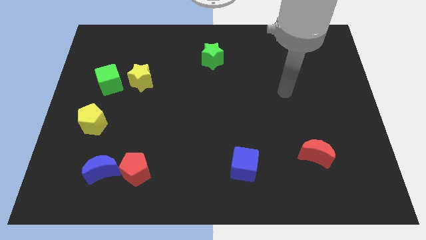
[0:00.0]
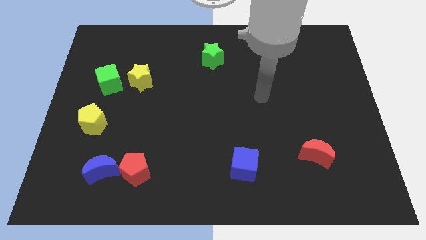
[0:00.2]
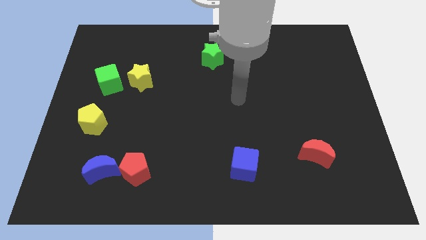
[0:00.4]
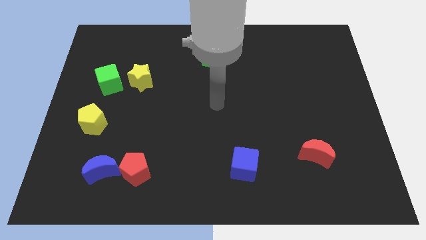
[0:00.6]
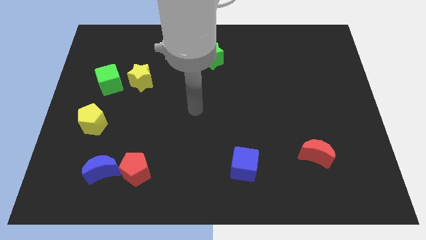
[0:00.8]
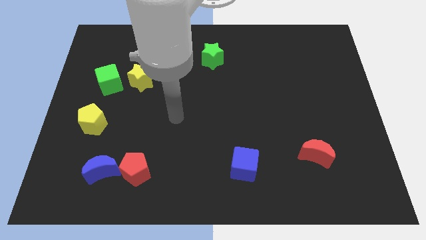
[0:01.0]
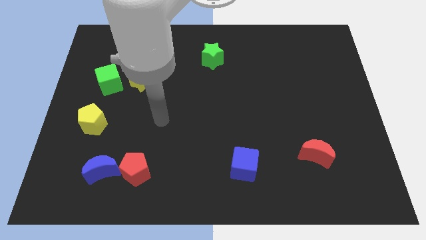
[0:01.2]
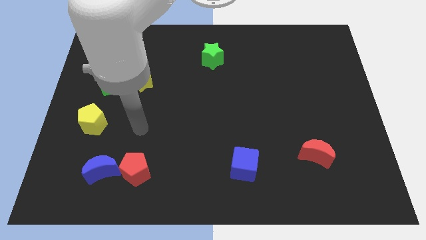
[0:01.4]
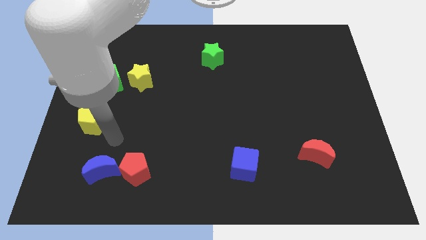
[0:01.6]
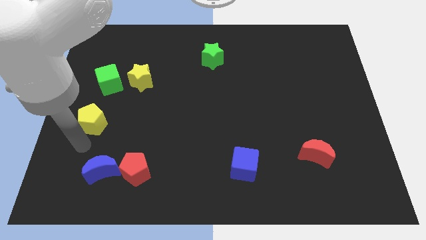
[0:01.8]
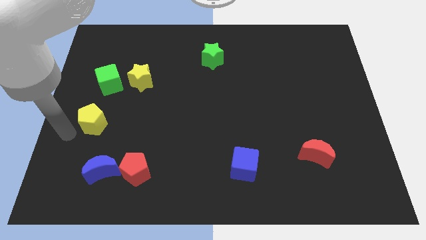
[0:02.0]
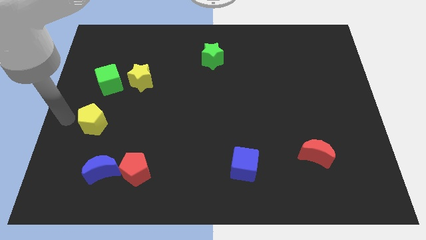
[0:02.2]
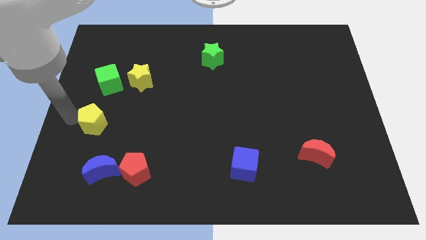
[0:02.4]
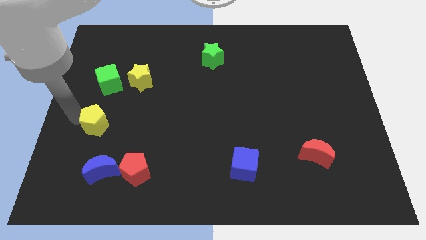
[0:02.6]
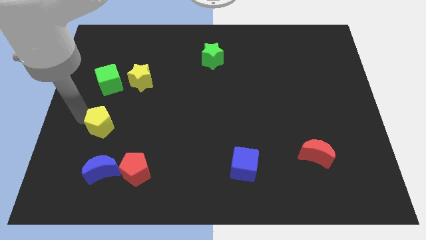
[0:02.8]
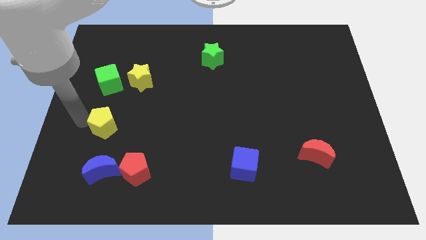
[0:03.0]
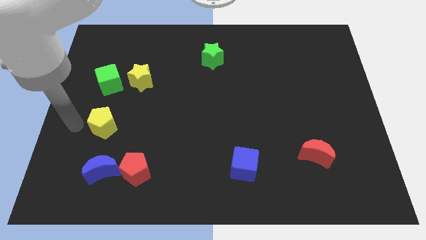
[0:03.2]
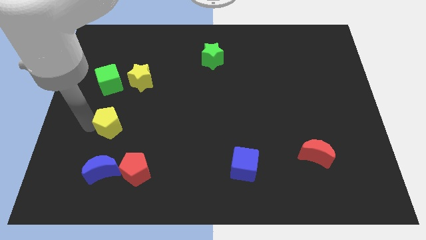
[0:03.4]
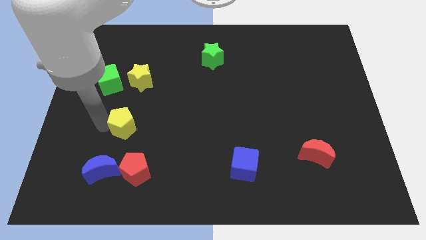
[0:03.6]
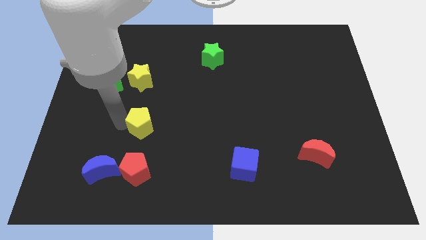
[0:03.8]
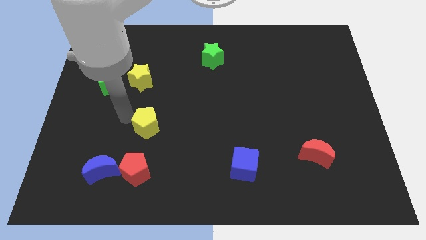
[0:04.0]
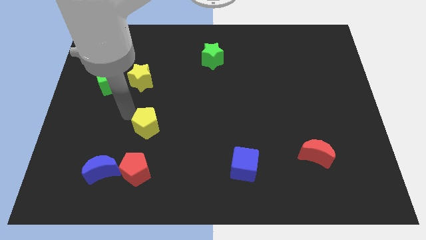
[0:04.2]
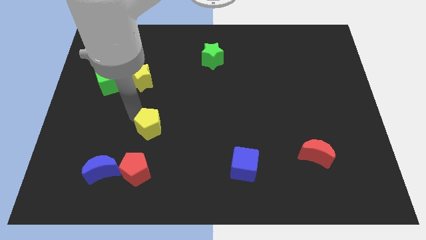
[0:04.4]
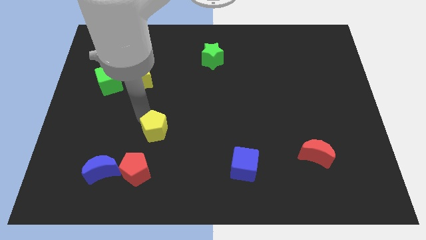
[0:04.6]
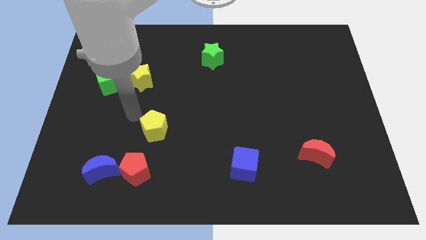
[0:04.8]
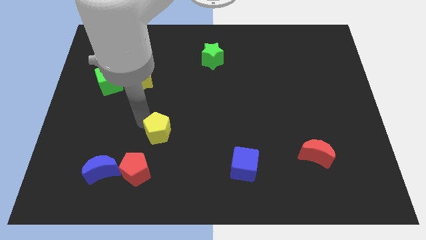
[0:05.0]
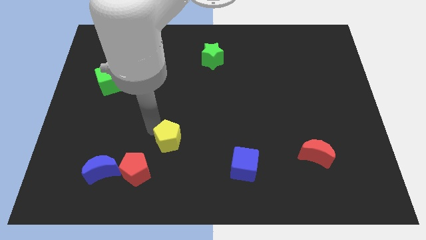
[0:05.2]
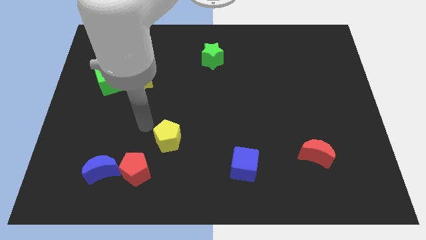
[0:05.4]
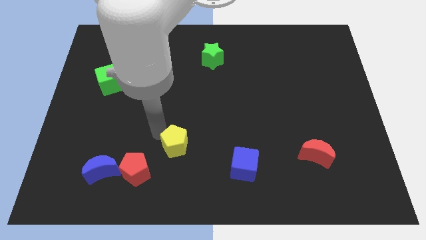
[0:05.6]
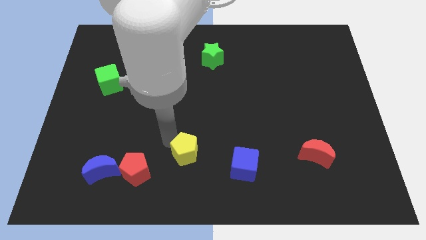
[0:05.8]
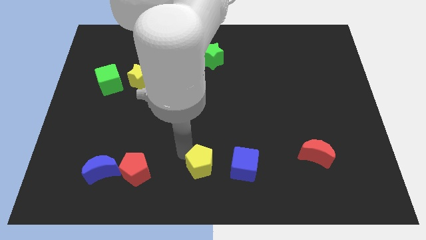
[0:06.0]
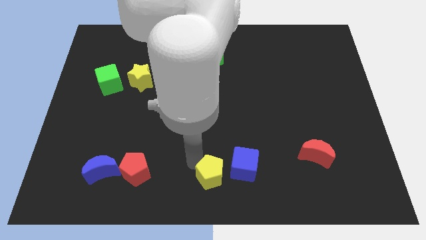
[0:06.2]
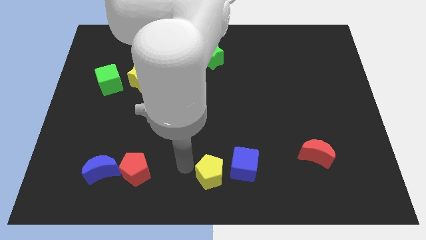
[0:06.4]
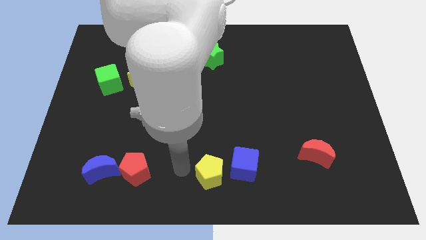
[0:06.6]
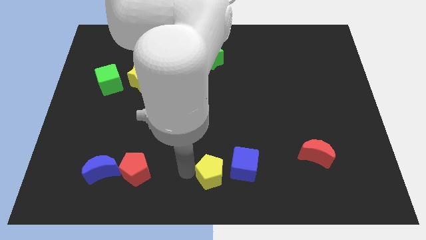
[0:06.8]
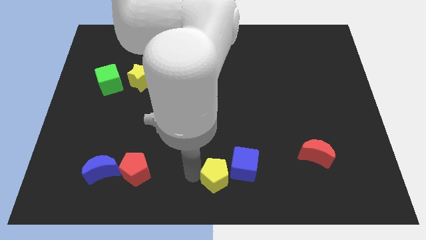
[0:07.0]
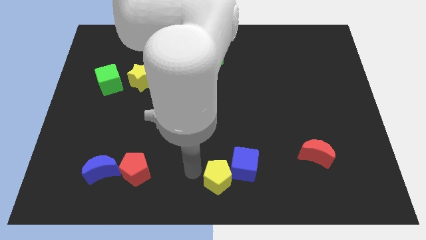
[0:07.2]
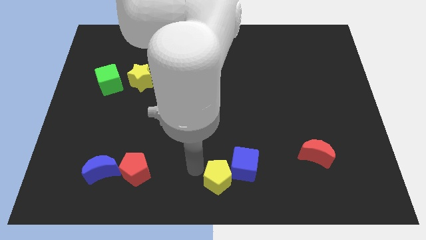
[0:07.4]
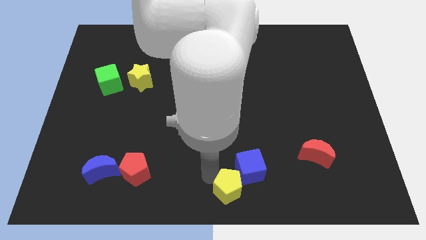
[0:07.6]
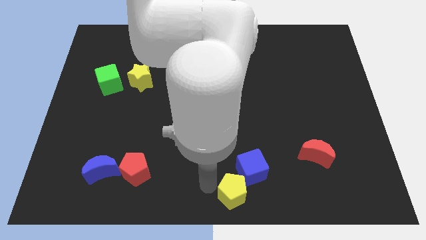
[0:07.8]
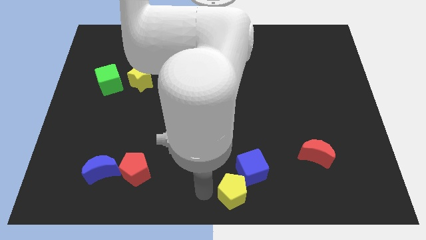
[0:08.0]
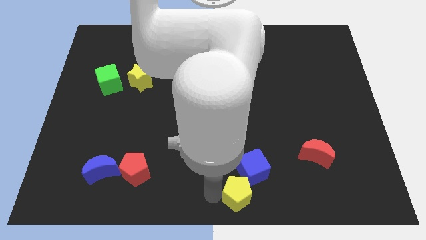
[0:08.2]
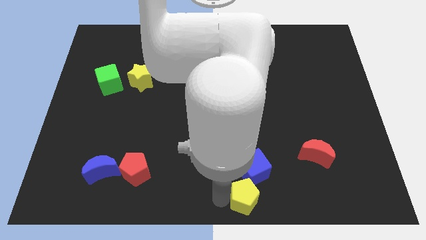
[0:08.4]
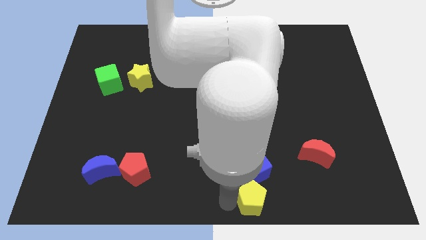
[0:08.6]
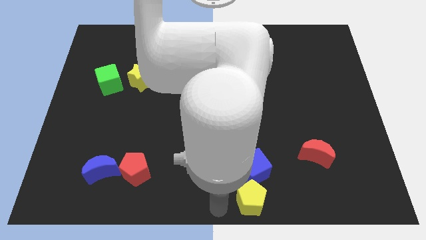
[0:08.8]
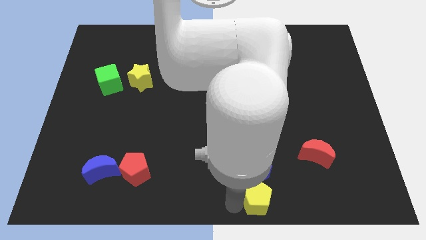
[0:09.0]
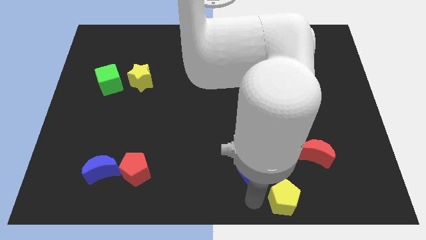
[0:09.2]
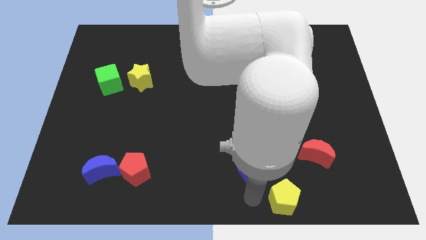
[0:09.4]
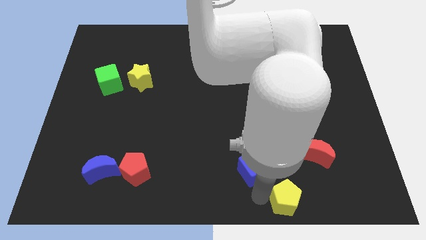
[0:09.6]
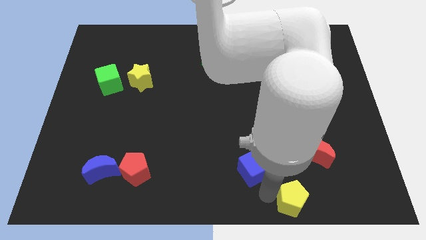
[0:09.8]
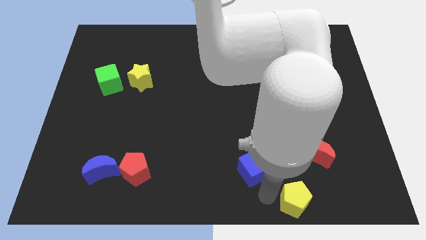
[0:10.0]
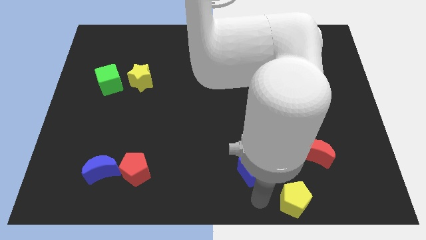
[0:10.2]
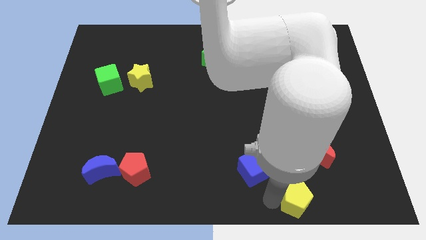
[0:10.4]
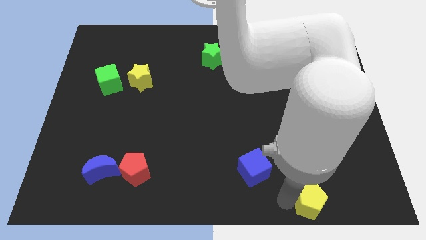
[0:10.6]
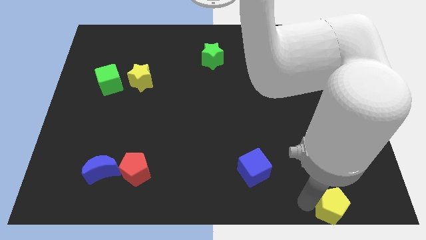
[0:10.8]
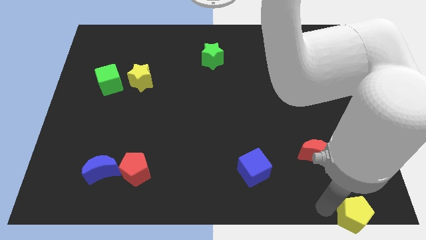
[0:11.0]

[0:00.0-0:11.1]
push the yellow pentagon to the bottom right corner

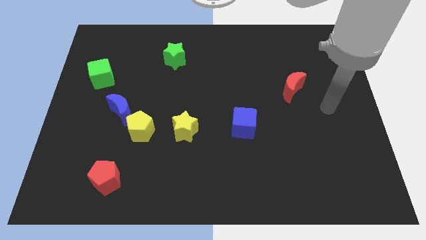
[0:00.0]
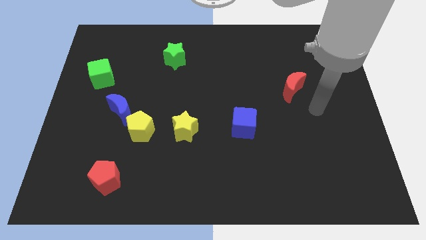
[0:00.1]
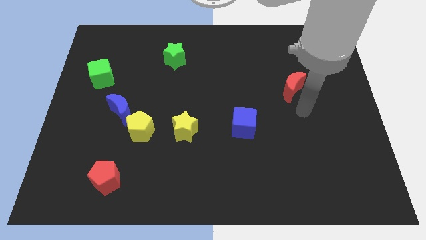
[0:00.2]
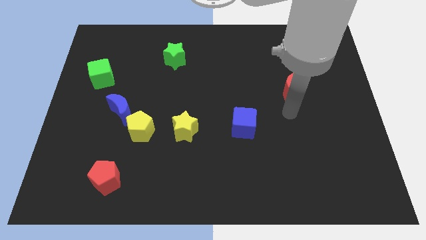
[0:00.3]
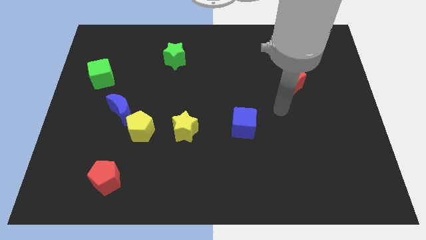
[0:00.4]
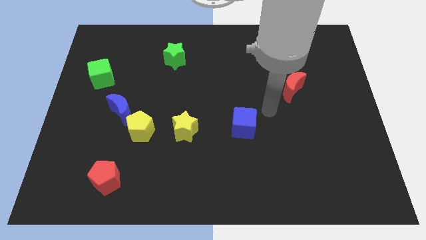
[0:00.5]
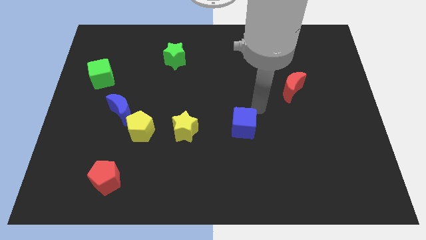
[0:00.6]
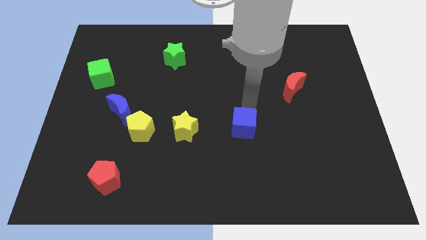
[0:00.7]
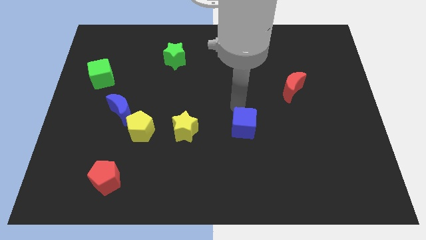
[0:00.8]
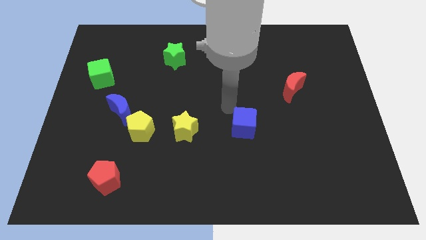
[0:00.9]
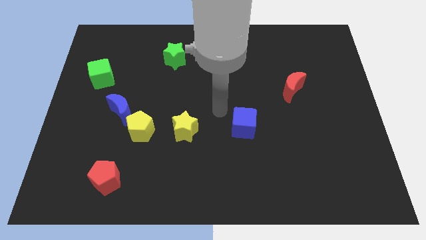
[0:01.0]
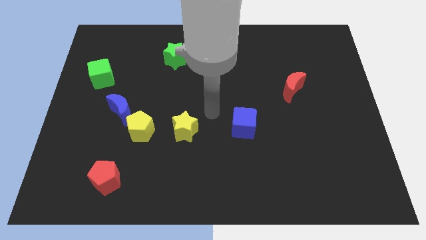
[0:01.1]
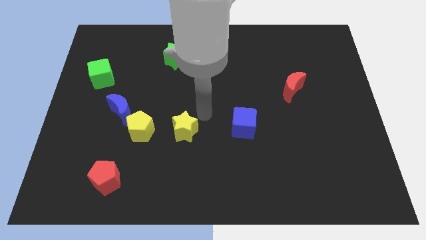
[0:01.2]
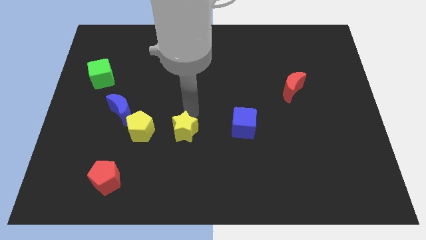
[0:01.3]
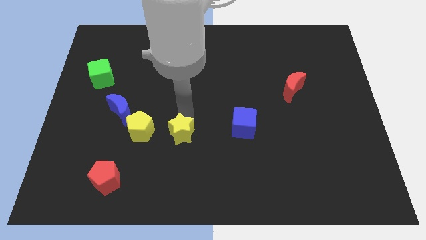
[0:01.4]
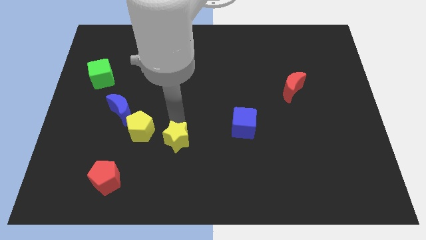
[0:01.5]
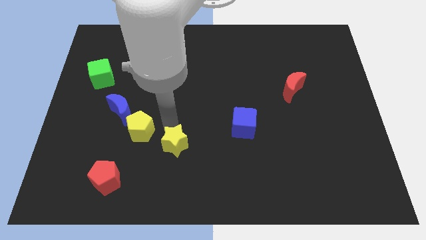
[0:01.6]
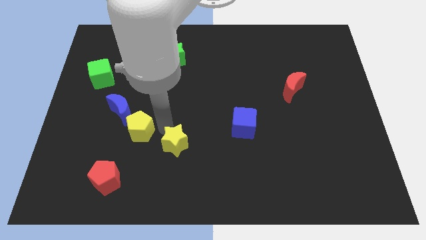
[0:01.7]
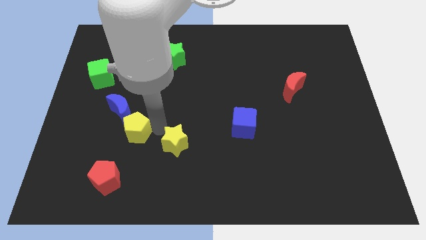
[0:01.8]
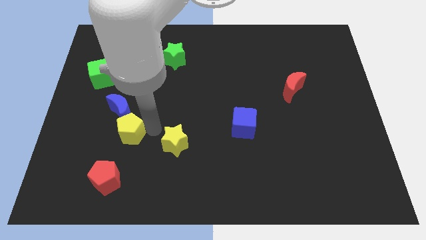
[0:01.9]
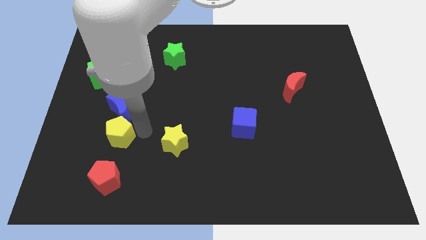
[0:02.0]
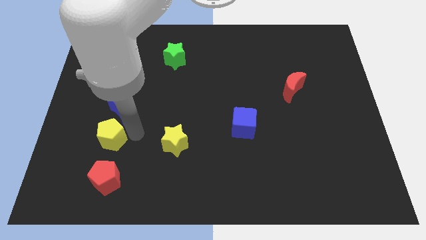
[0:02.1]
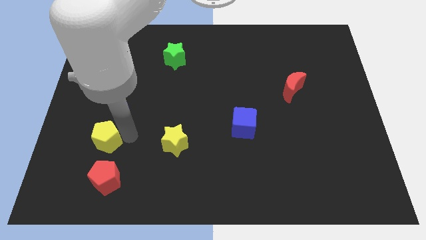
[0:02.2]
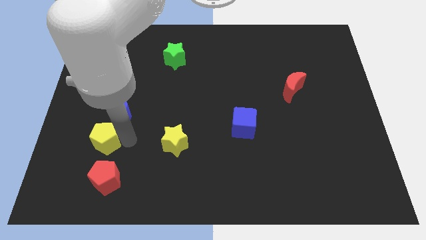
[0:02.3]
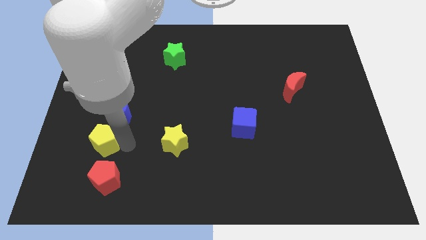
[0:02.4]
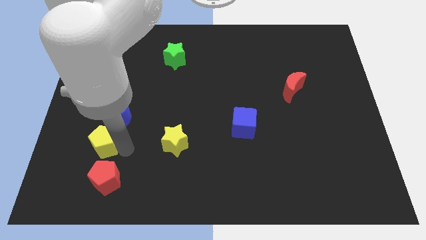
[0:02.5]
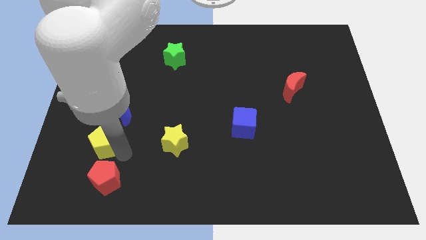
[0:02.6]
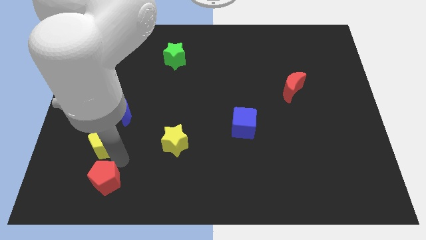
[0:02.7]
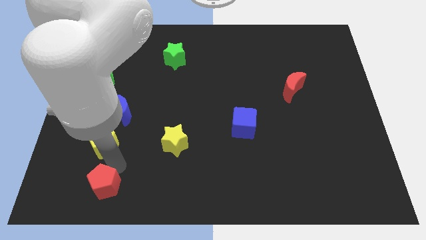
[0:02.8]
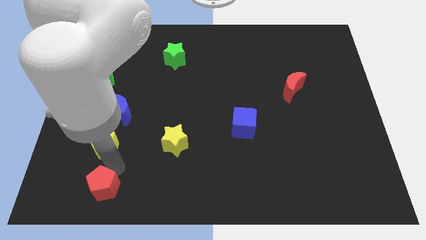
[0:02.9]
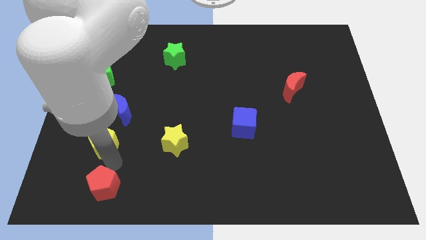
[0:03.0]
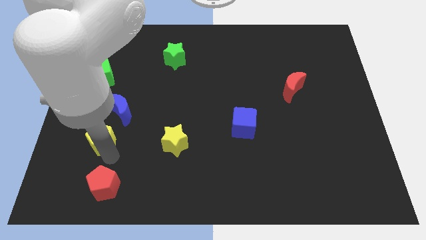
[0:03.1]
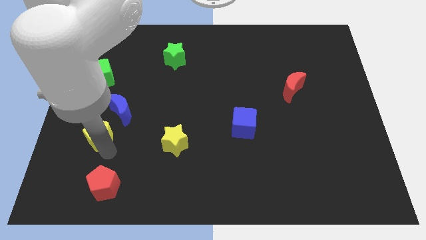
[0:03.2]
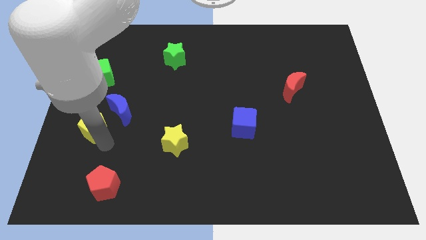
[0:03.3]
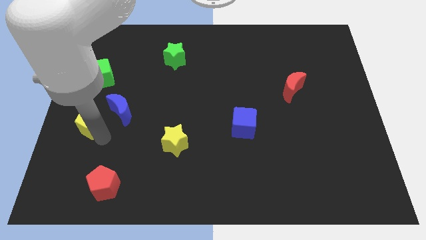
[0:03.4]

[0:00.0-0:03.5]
slide the yellow pentagon to the left side
